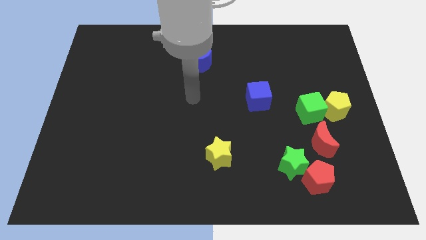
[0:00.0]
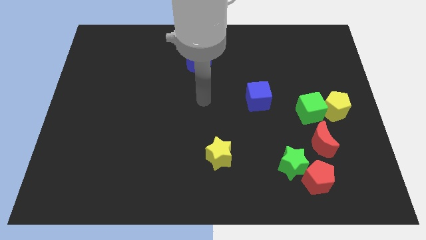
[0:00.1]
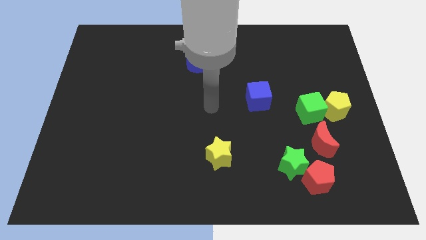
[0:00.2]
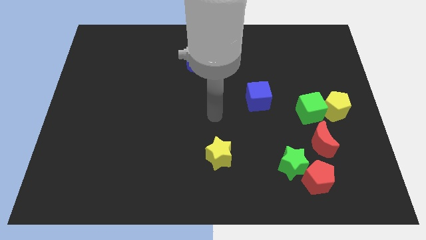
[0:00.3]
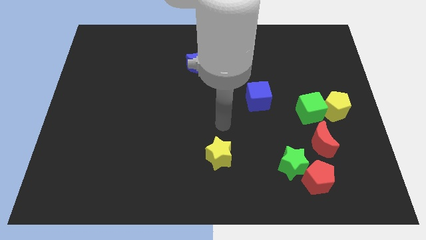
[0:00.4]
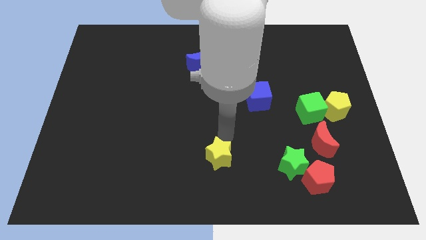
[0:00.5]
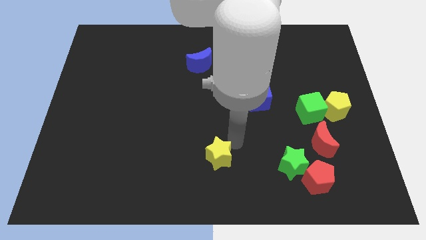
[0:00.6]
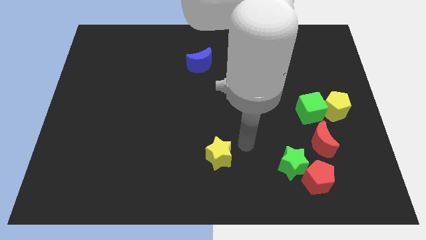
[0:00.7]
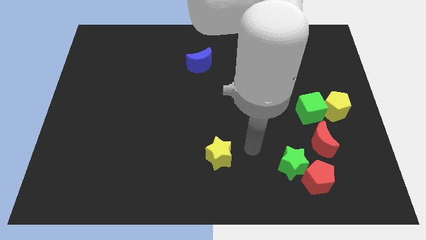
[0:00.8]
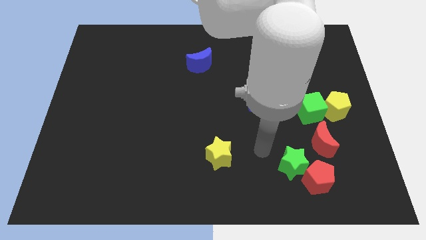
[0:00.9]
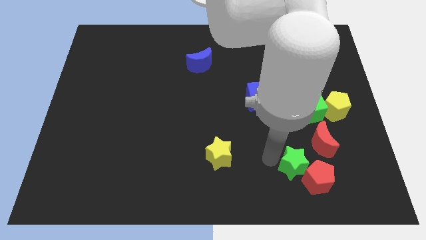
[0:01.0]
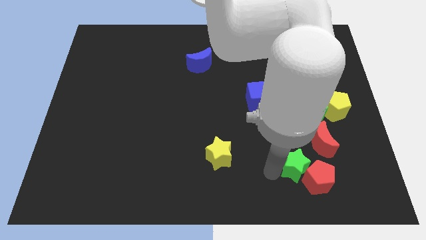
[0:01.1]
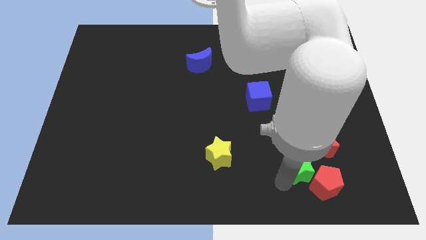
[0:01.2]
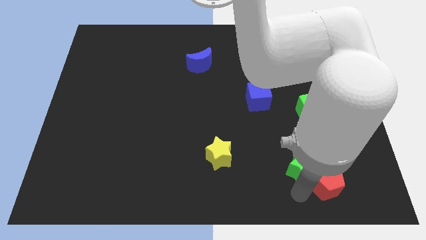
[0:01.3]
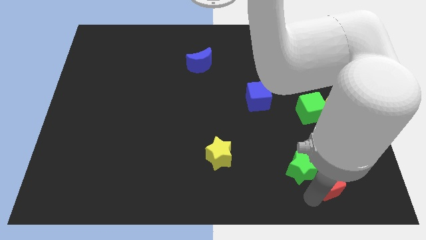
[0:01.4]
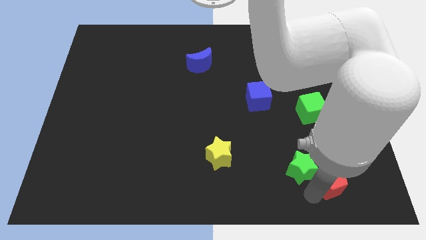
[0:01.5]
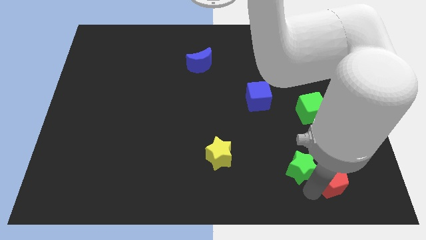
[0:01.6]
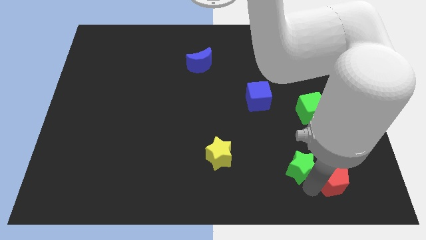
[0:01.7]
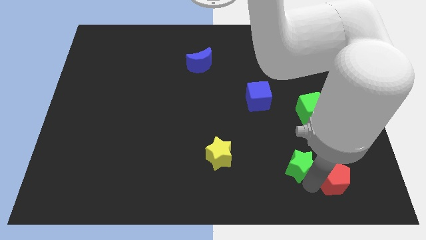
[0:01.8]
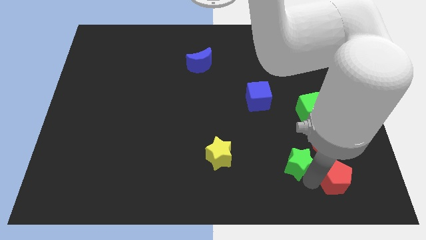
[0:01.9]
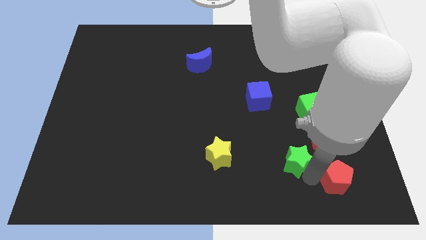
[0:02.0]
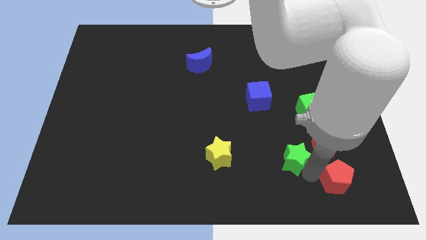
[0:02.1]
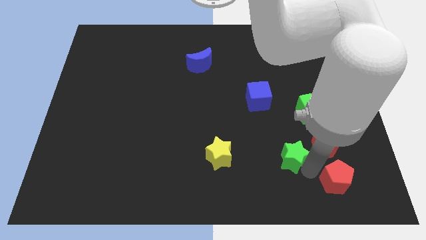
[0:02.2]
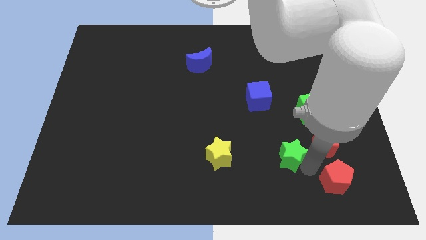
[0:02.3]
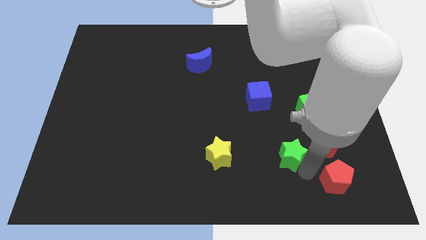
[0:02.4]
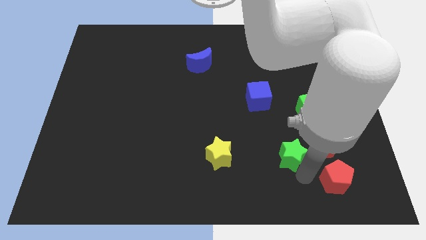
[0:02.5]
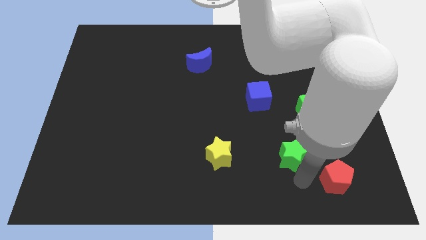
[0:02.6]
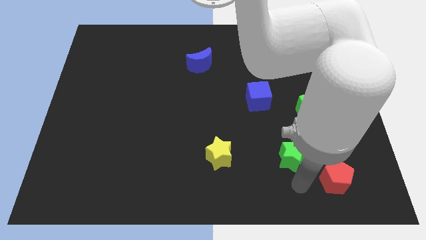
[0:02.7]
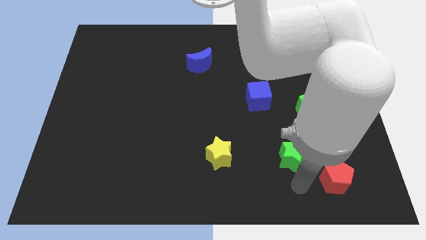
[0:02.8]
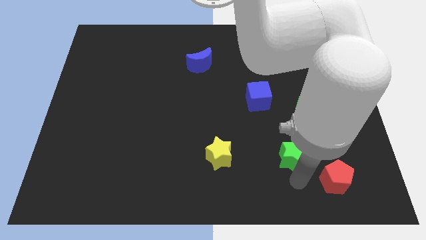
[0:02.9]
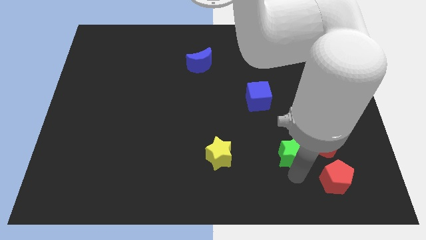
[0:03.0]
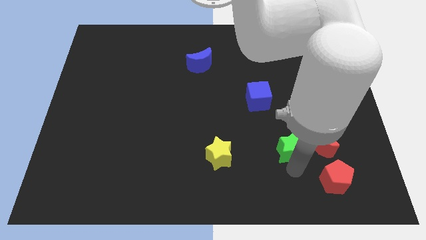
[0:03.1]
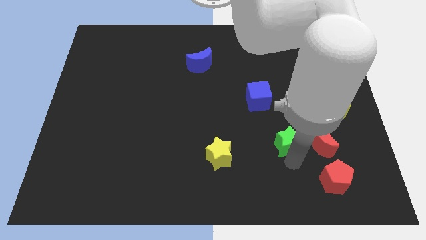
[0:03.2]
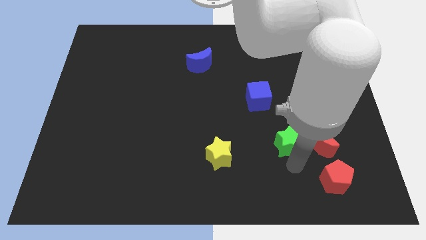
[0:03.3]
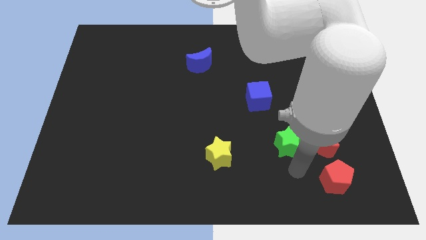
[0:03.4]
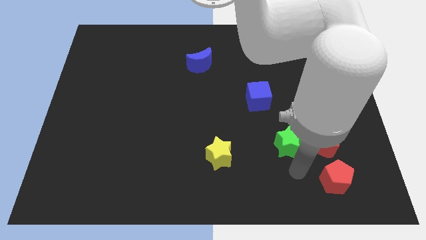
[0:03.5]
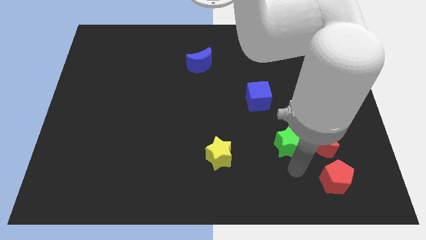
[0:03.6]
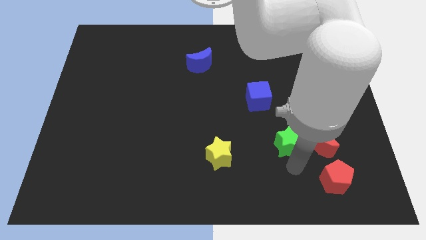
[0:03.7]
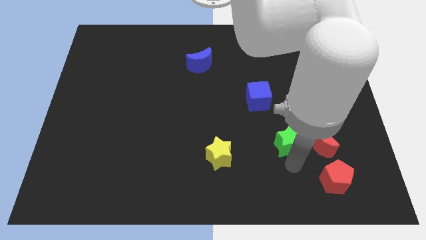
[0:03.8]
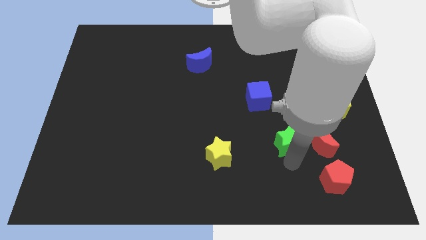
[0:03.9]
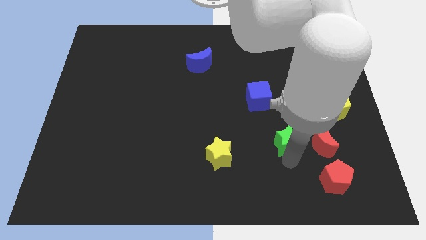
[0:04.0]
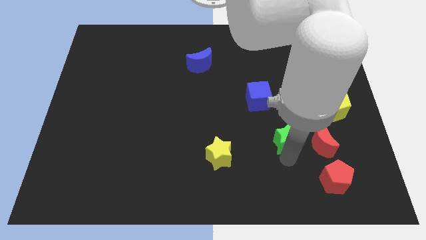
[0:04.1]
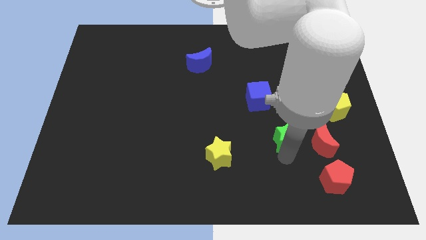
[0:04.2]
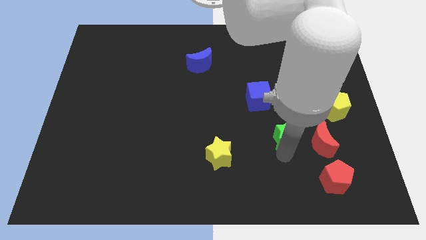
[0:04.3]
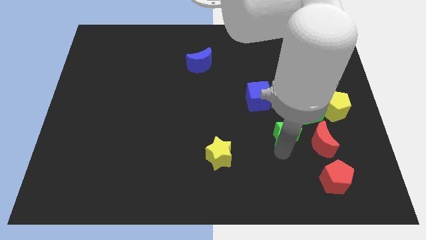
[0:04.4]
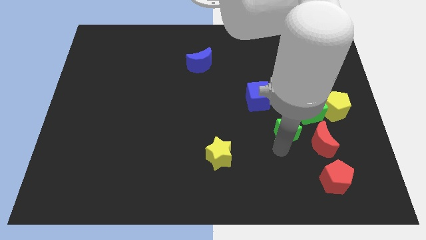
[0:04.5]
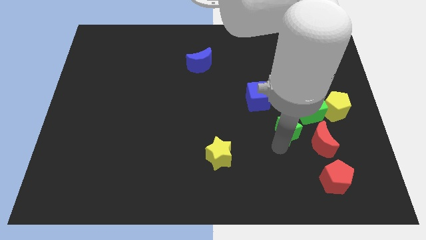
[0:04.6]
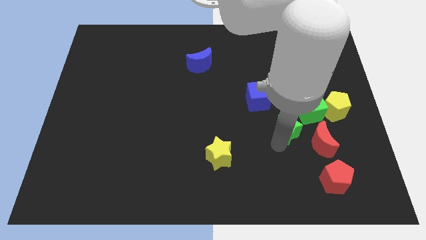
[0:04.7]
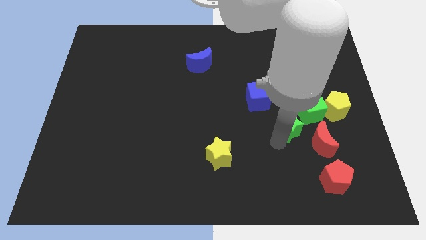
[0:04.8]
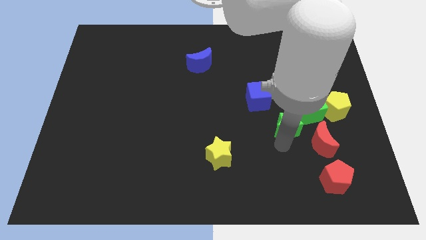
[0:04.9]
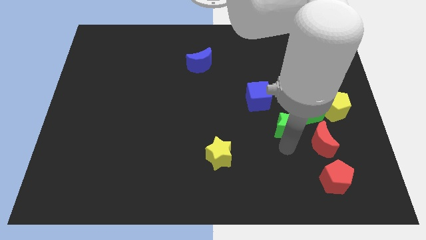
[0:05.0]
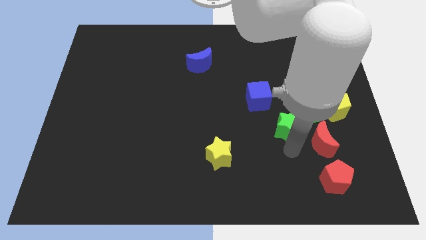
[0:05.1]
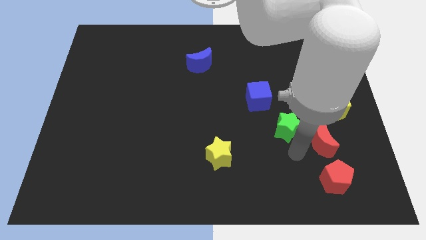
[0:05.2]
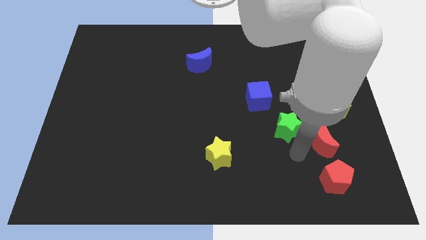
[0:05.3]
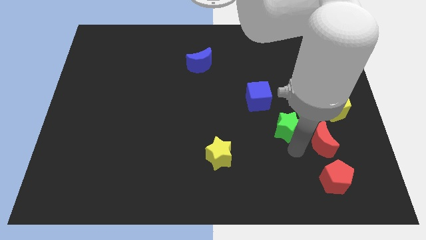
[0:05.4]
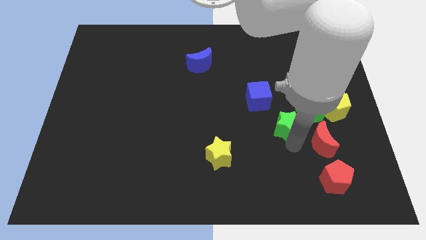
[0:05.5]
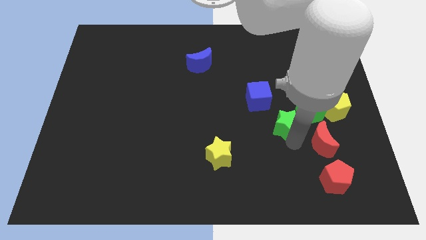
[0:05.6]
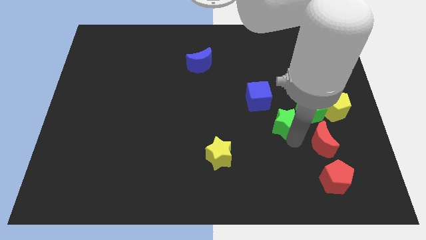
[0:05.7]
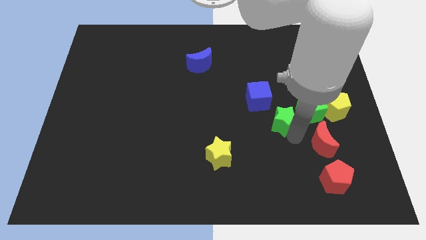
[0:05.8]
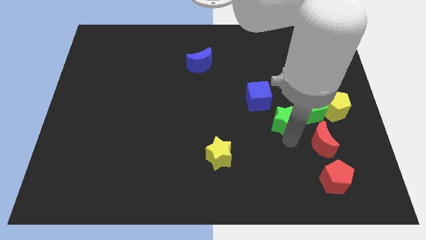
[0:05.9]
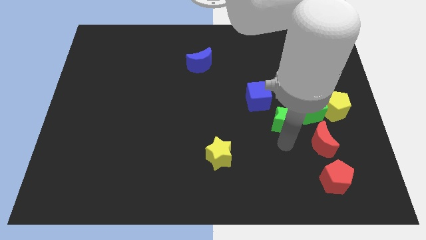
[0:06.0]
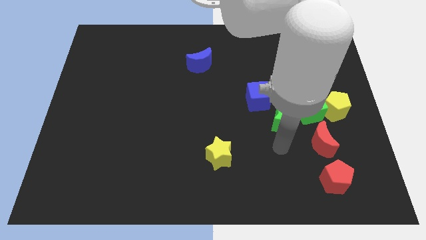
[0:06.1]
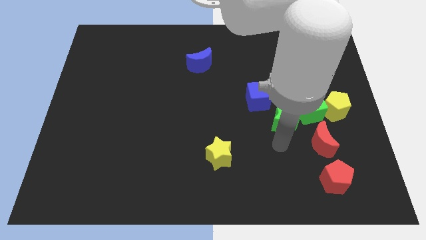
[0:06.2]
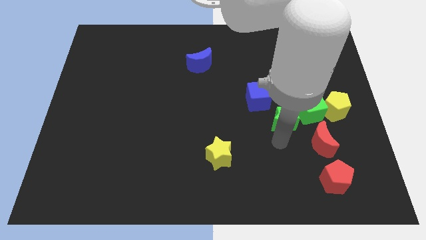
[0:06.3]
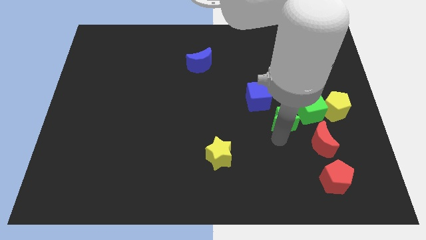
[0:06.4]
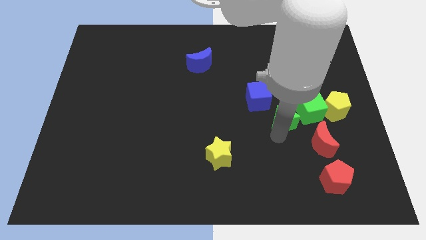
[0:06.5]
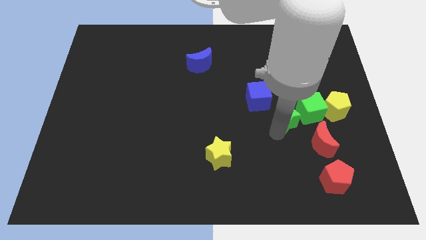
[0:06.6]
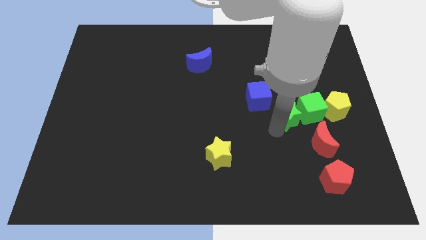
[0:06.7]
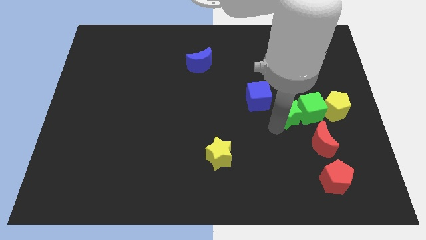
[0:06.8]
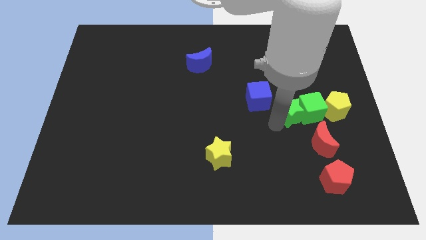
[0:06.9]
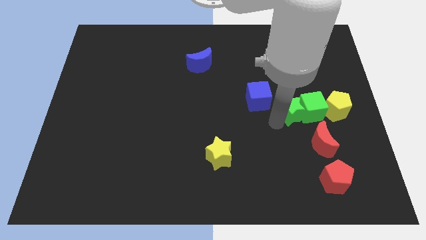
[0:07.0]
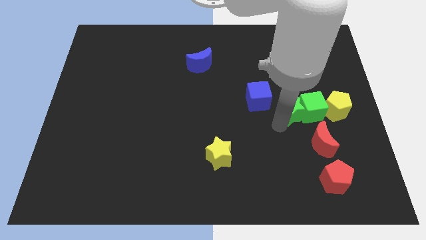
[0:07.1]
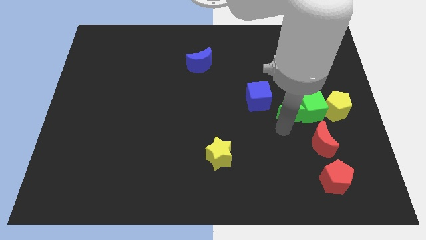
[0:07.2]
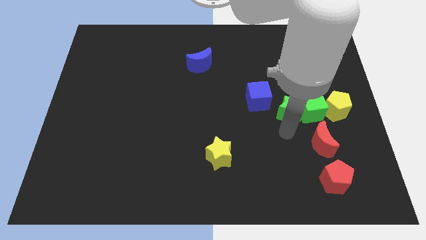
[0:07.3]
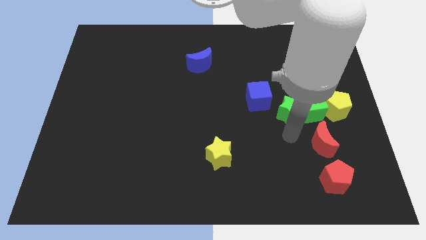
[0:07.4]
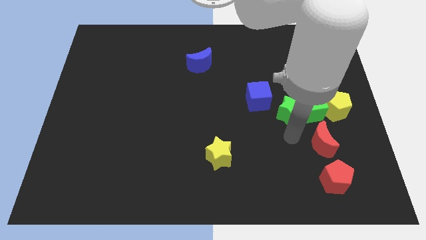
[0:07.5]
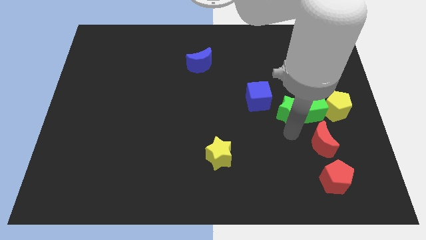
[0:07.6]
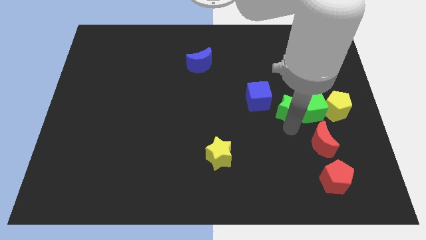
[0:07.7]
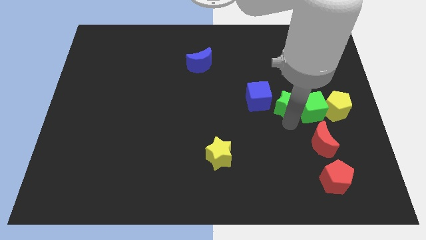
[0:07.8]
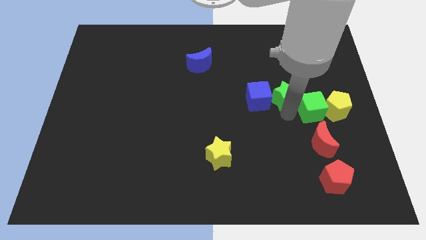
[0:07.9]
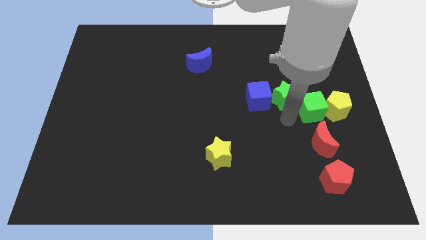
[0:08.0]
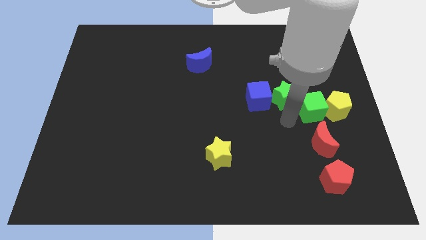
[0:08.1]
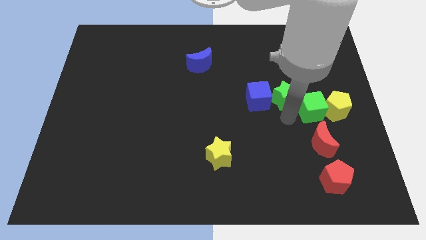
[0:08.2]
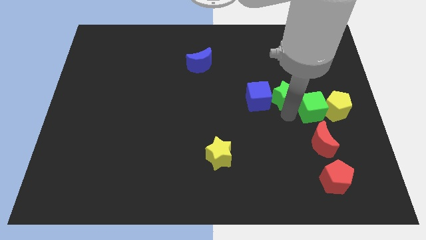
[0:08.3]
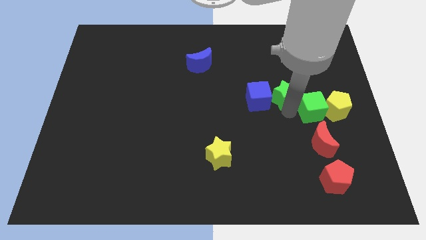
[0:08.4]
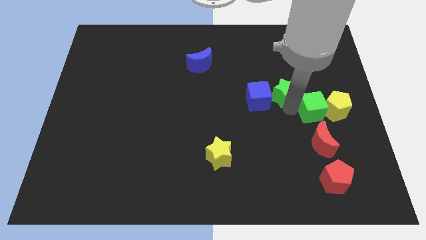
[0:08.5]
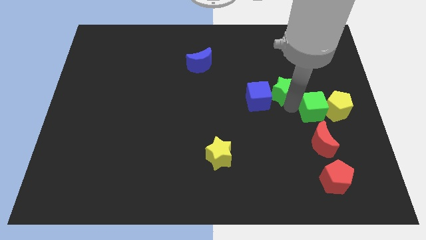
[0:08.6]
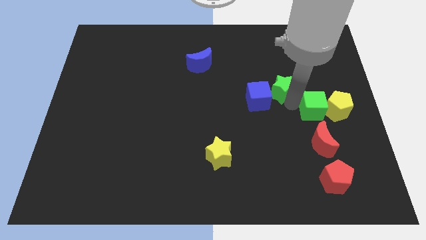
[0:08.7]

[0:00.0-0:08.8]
push the green star up
